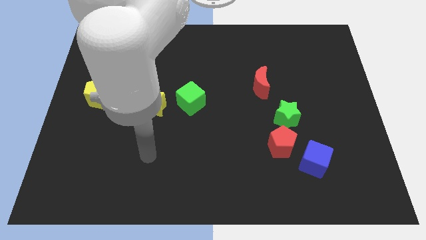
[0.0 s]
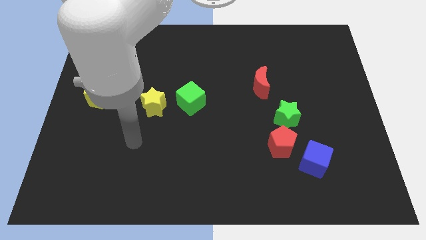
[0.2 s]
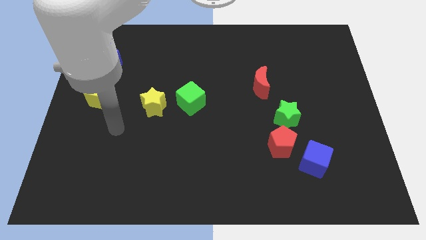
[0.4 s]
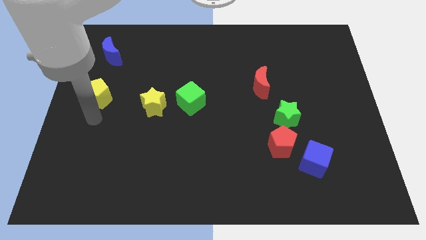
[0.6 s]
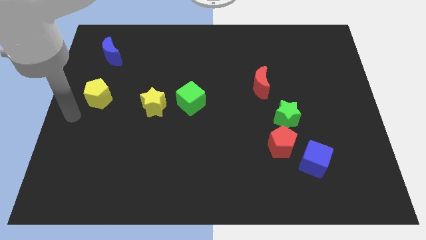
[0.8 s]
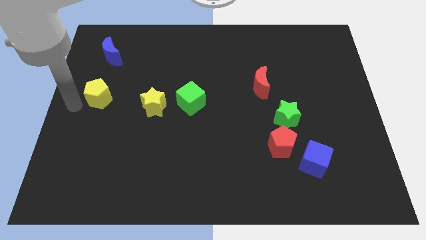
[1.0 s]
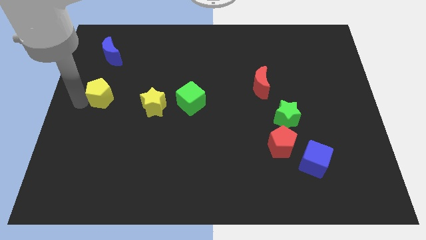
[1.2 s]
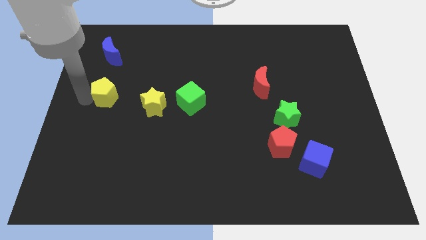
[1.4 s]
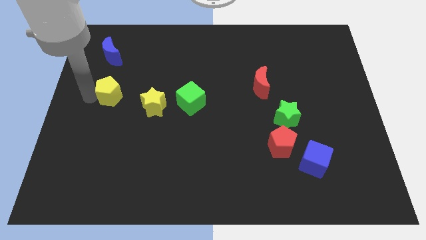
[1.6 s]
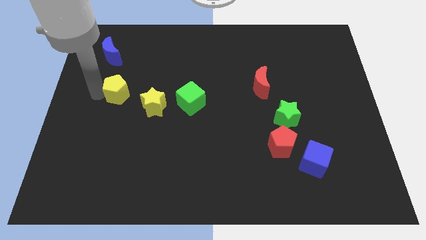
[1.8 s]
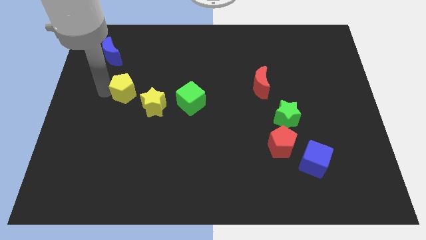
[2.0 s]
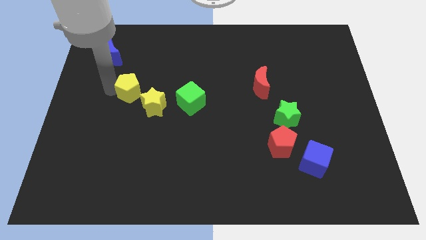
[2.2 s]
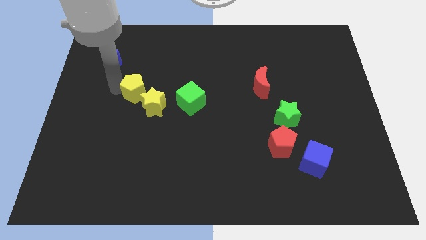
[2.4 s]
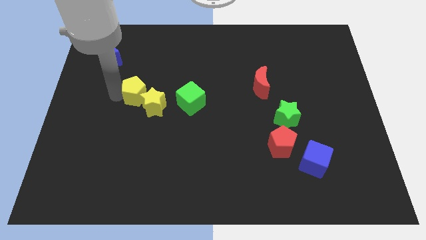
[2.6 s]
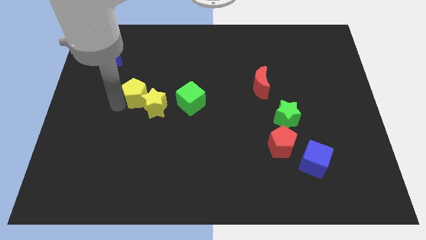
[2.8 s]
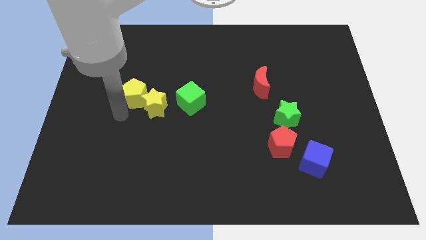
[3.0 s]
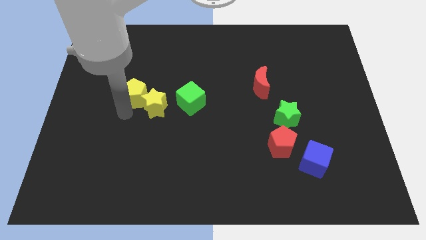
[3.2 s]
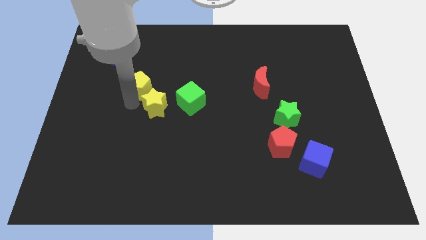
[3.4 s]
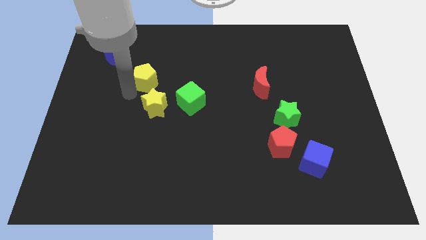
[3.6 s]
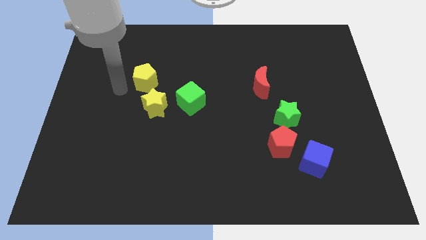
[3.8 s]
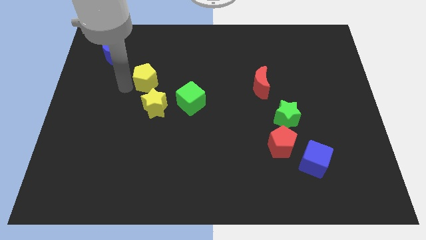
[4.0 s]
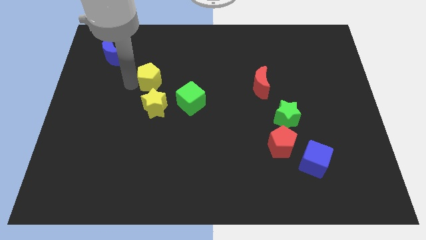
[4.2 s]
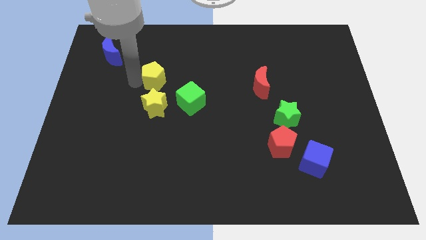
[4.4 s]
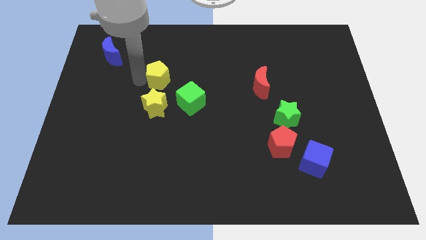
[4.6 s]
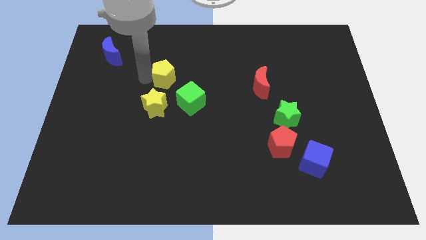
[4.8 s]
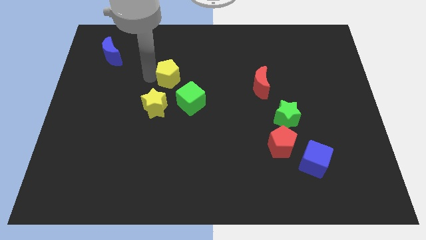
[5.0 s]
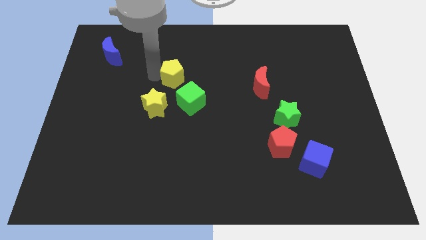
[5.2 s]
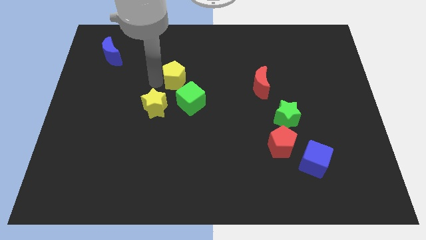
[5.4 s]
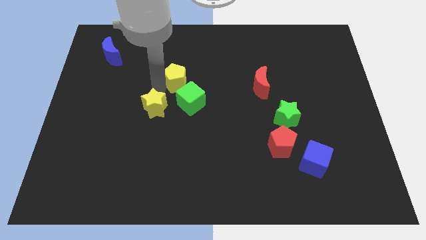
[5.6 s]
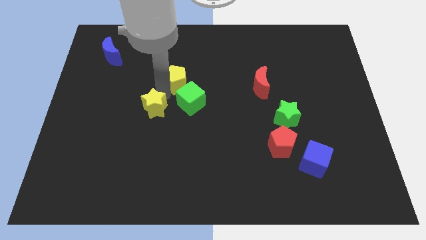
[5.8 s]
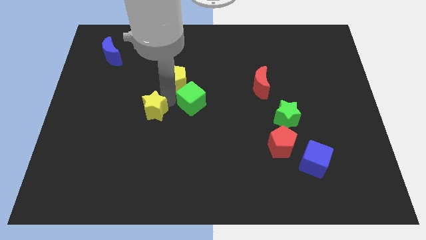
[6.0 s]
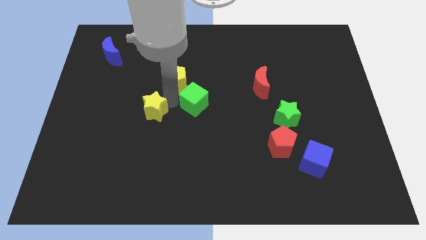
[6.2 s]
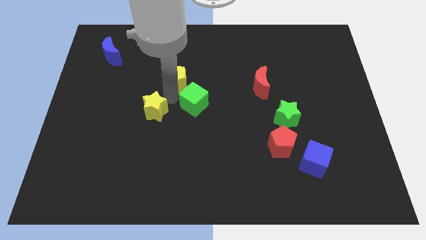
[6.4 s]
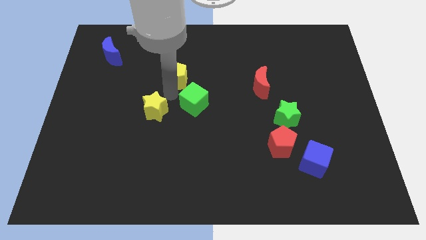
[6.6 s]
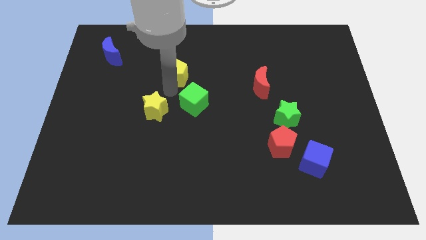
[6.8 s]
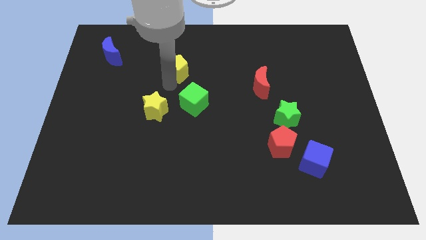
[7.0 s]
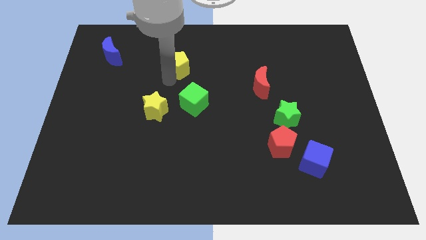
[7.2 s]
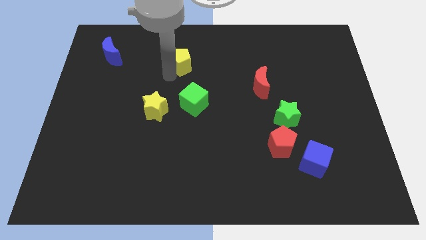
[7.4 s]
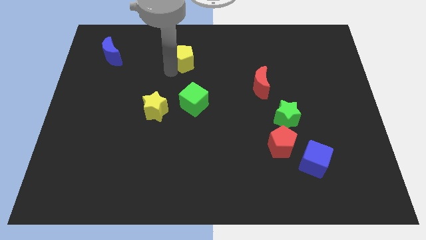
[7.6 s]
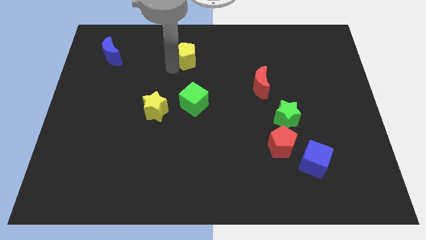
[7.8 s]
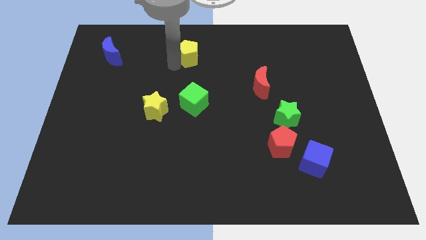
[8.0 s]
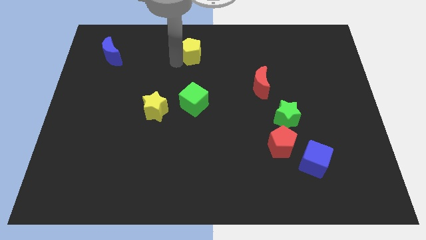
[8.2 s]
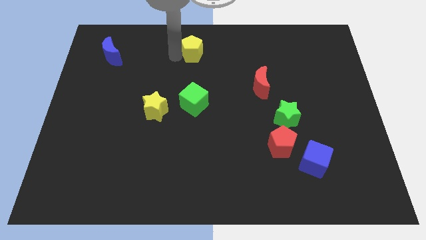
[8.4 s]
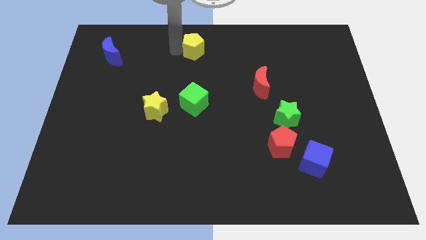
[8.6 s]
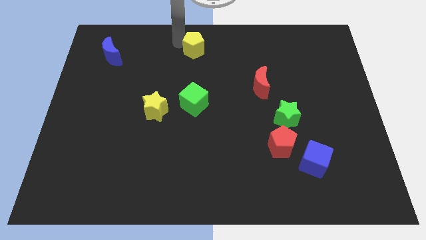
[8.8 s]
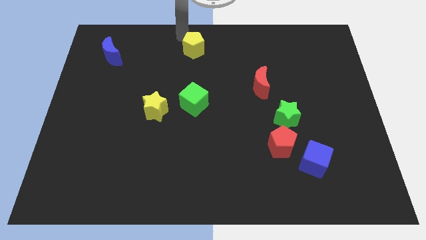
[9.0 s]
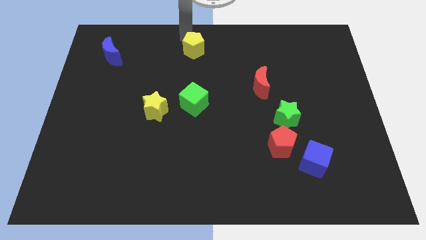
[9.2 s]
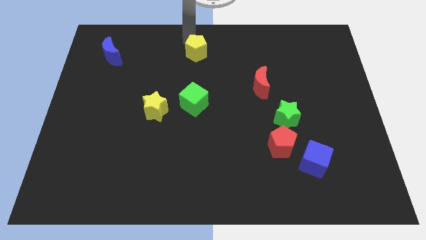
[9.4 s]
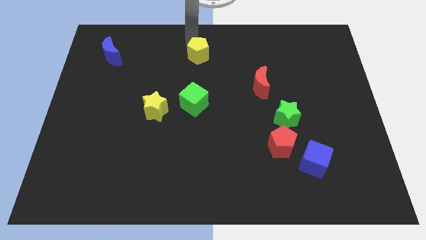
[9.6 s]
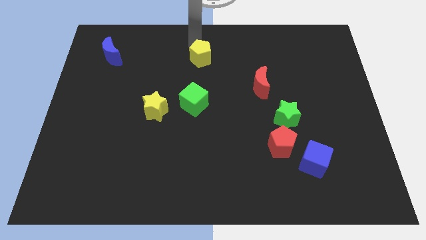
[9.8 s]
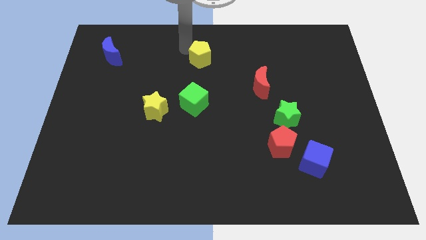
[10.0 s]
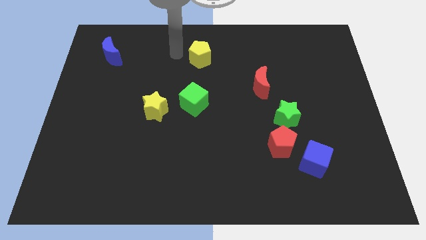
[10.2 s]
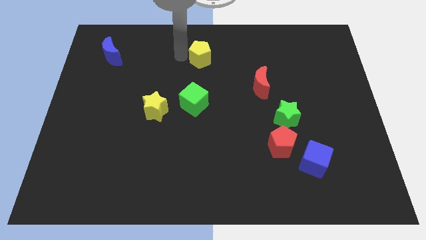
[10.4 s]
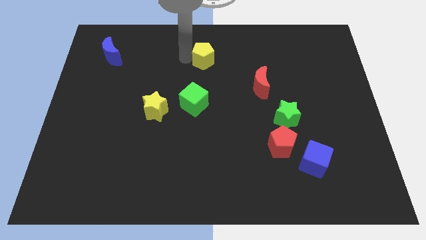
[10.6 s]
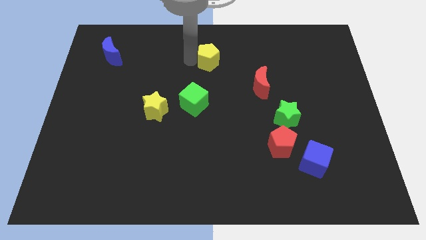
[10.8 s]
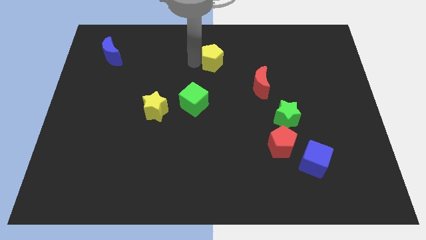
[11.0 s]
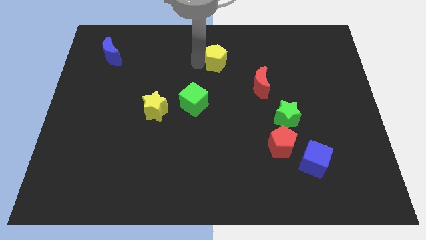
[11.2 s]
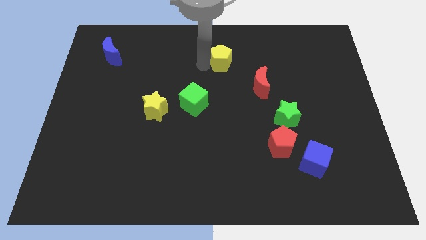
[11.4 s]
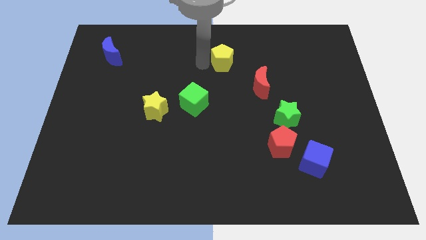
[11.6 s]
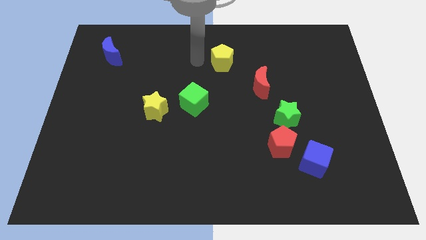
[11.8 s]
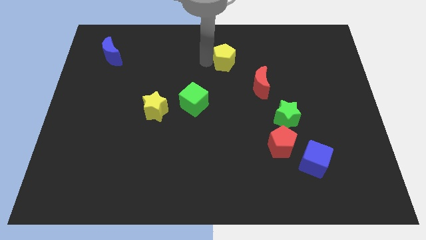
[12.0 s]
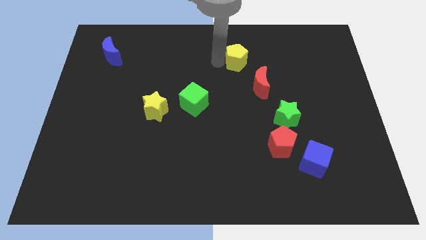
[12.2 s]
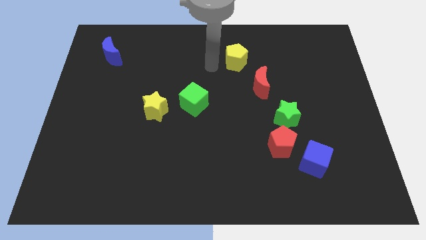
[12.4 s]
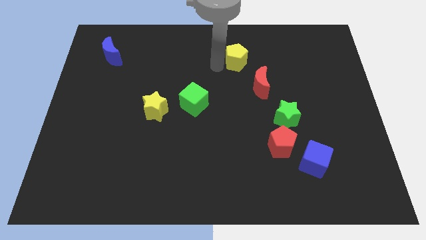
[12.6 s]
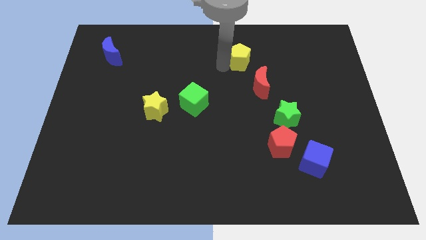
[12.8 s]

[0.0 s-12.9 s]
slide the yellow pentagon to the top of the red moon
